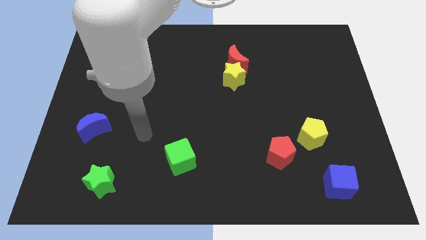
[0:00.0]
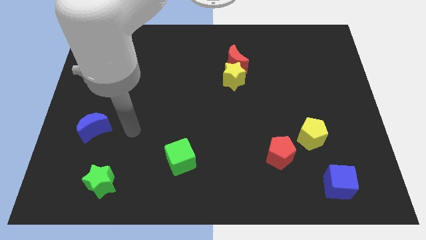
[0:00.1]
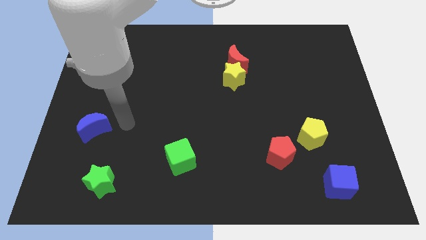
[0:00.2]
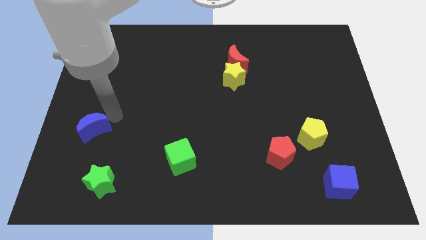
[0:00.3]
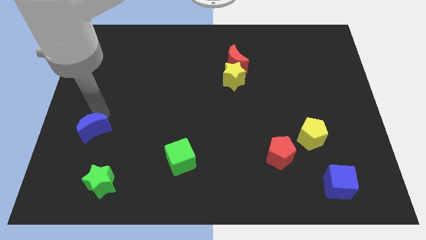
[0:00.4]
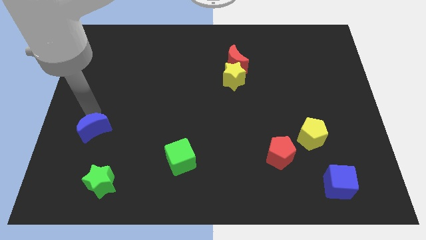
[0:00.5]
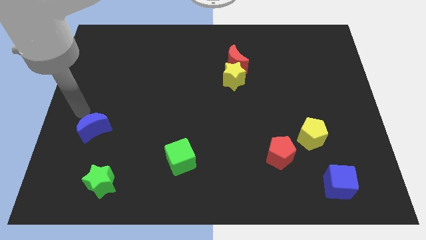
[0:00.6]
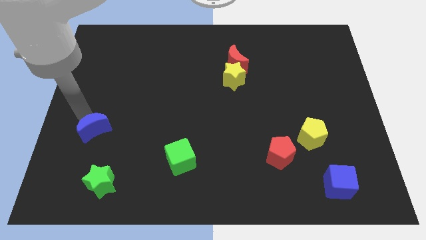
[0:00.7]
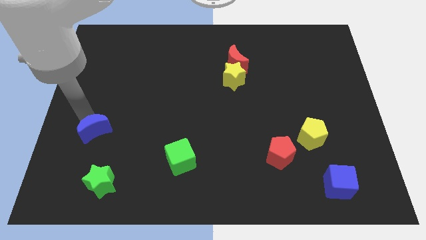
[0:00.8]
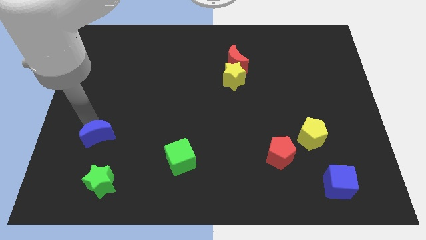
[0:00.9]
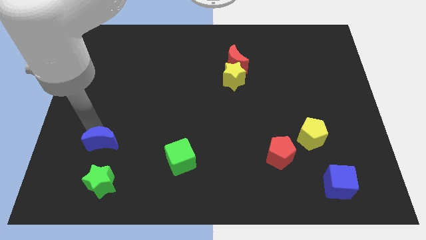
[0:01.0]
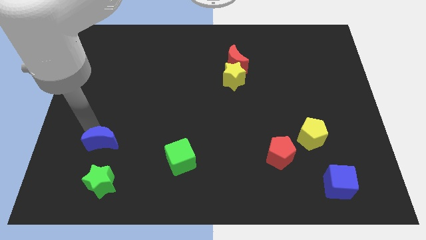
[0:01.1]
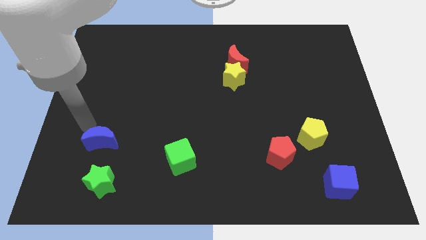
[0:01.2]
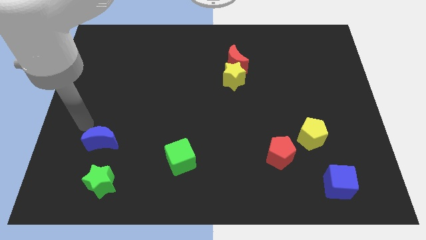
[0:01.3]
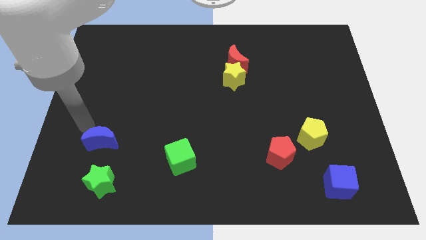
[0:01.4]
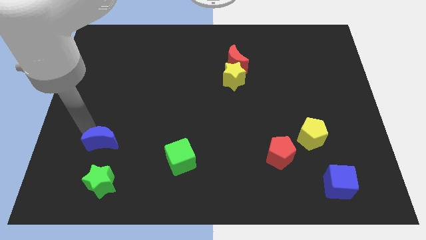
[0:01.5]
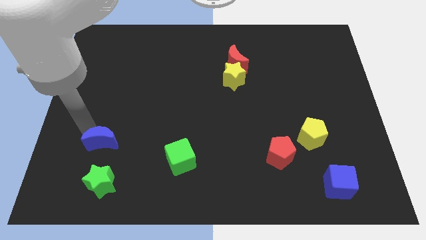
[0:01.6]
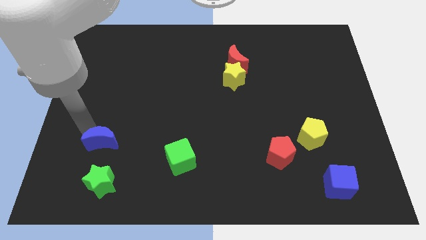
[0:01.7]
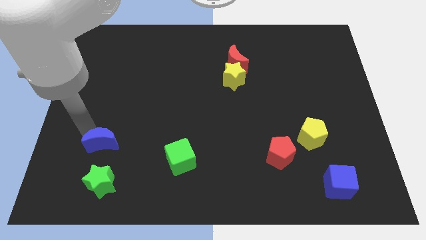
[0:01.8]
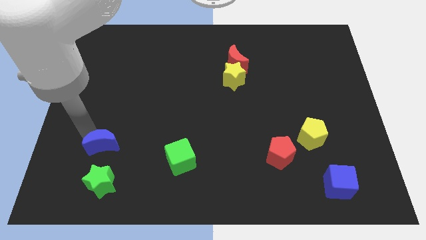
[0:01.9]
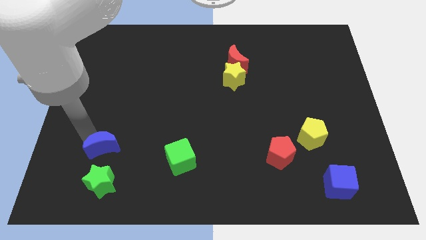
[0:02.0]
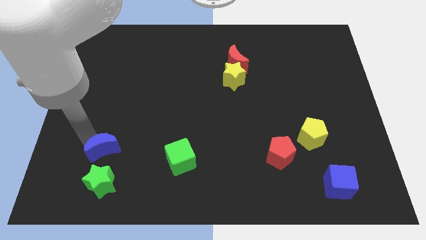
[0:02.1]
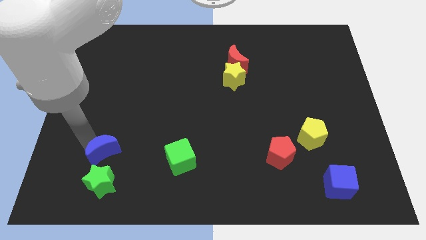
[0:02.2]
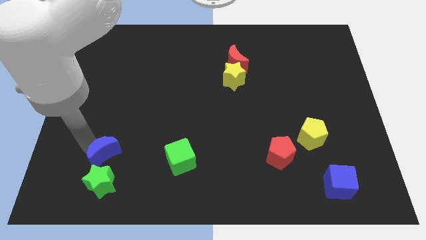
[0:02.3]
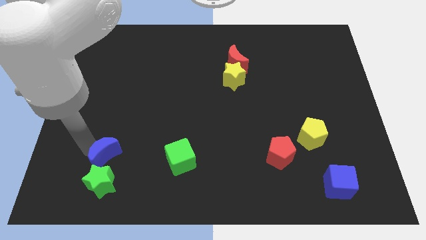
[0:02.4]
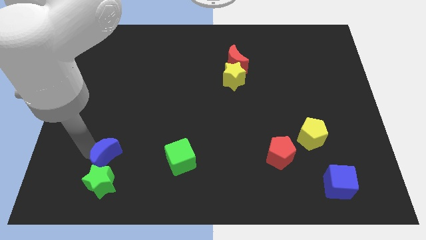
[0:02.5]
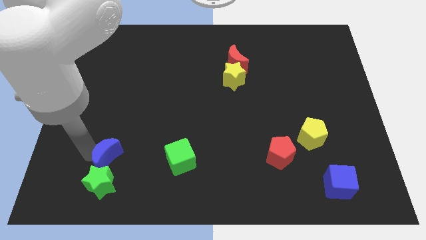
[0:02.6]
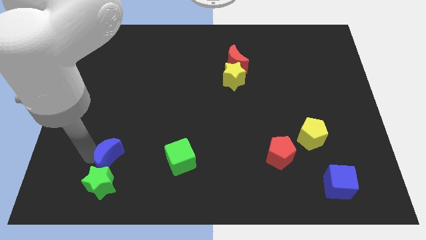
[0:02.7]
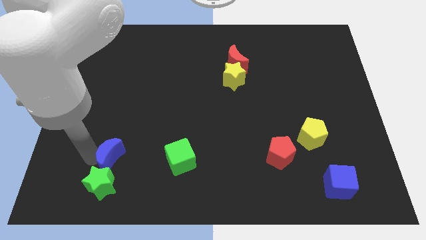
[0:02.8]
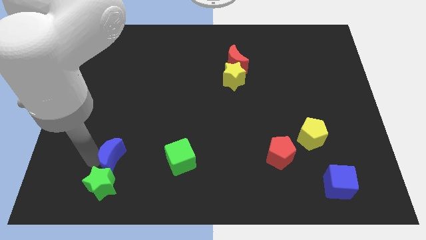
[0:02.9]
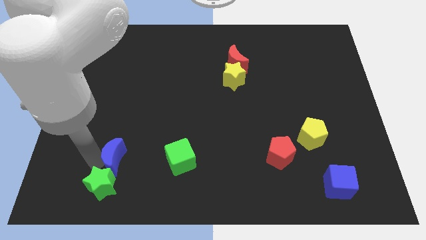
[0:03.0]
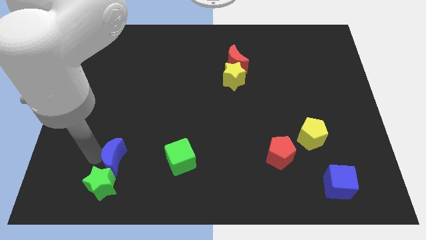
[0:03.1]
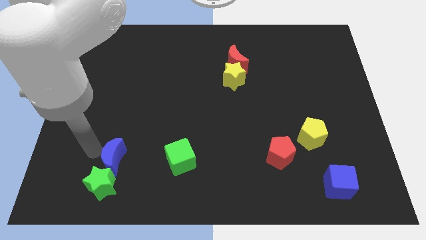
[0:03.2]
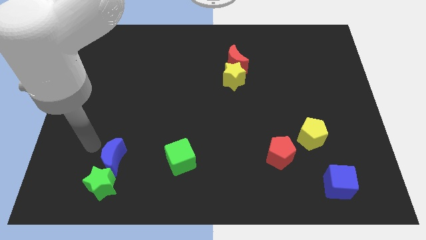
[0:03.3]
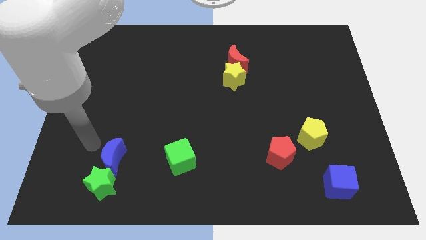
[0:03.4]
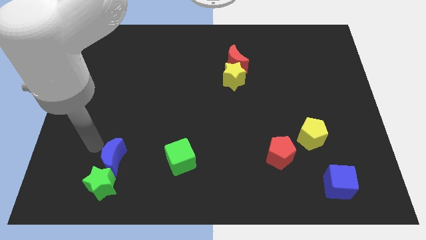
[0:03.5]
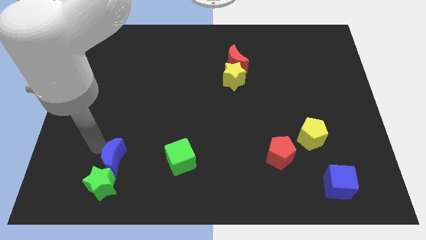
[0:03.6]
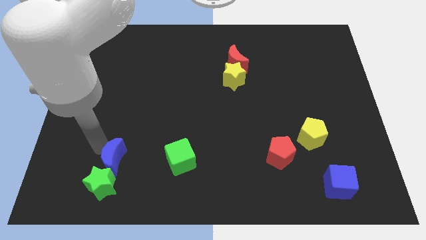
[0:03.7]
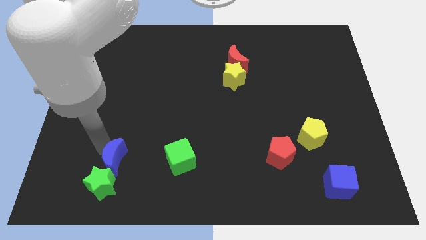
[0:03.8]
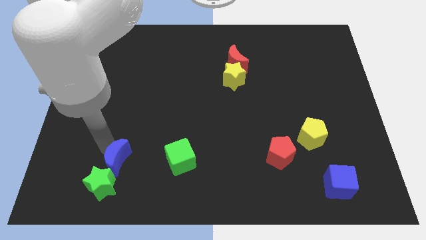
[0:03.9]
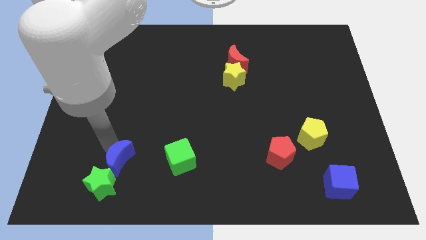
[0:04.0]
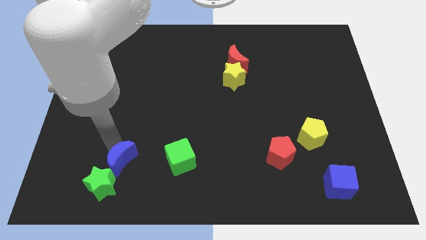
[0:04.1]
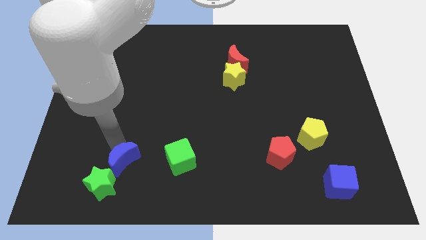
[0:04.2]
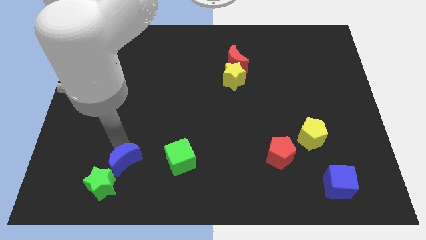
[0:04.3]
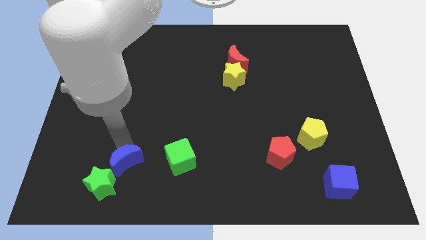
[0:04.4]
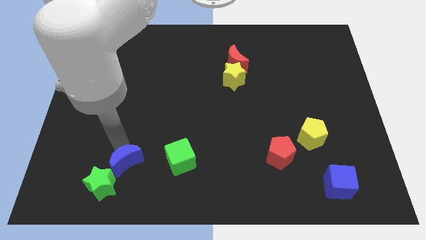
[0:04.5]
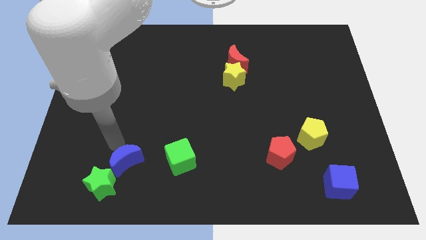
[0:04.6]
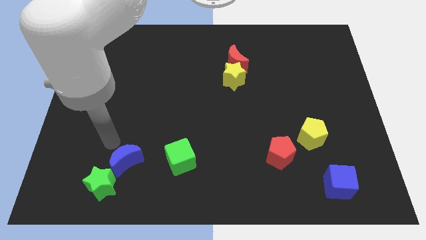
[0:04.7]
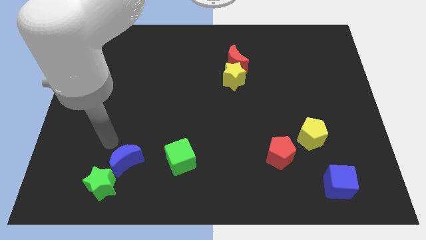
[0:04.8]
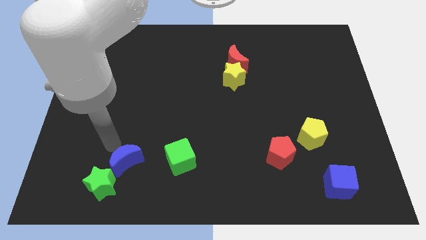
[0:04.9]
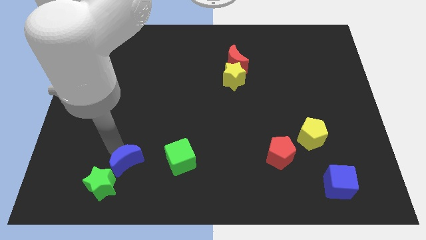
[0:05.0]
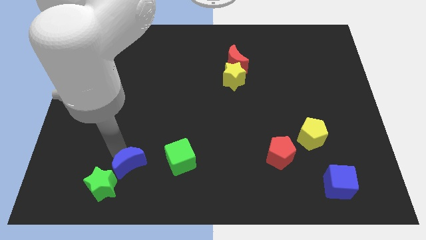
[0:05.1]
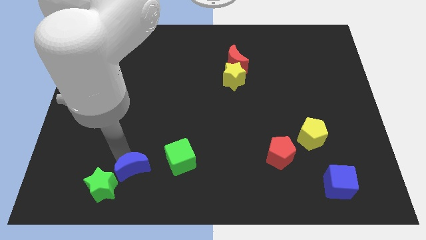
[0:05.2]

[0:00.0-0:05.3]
push the blue moon to the right of the green star

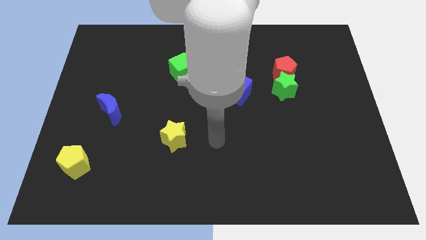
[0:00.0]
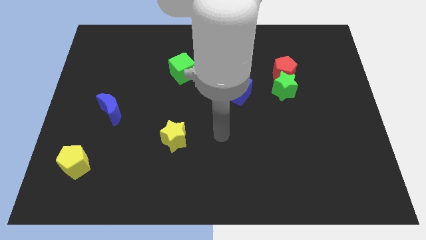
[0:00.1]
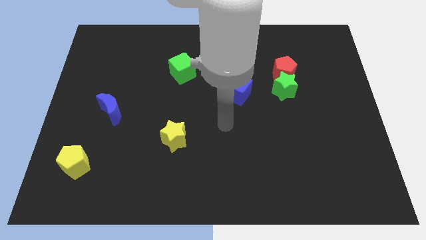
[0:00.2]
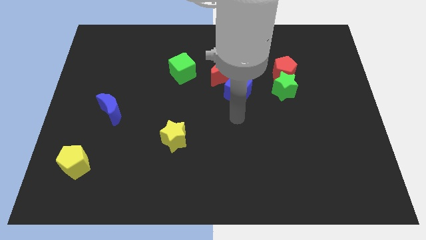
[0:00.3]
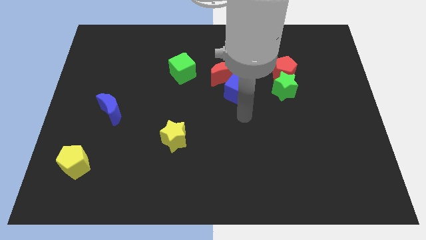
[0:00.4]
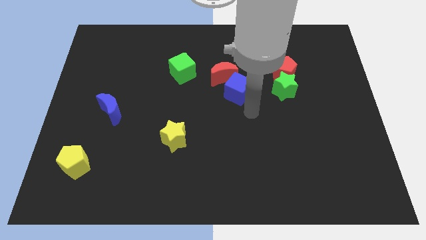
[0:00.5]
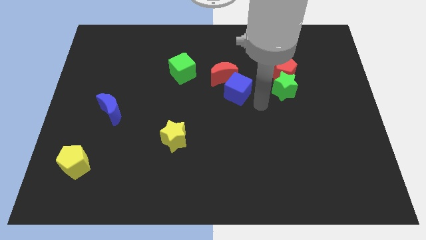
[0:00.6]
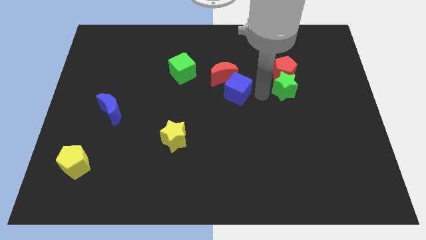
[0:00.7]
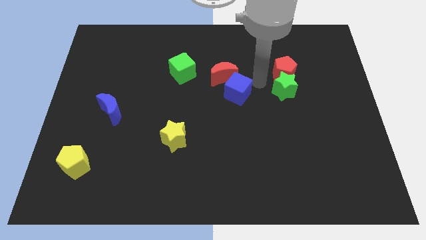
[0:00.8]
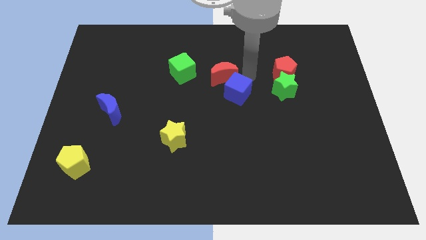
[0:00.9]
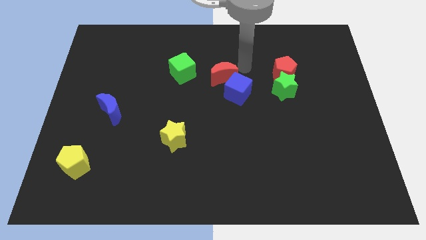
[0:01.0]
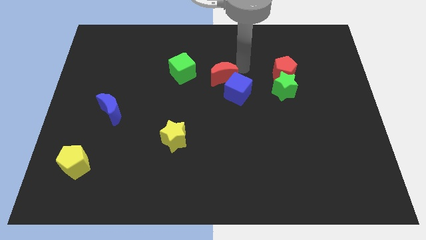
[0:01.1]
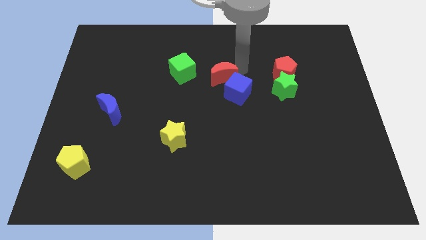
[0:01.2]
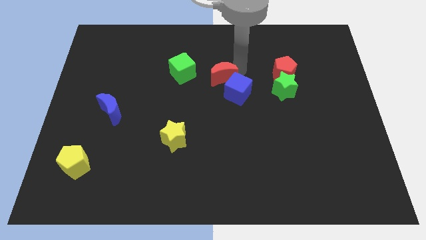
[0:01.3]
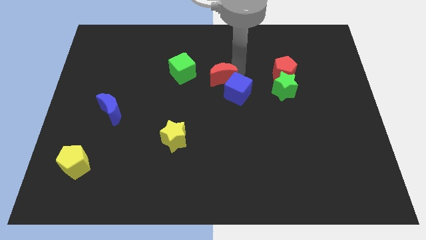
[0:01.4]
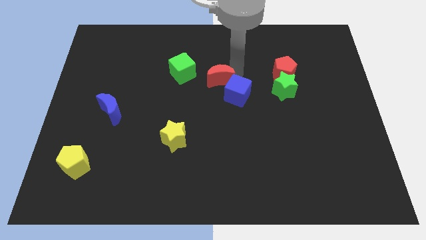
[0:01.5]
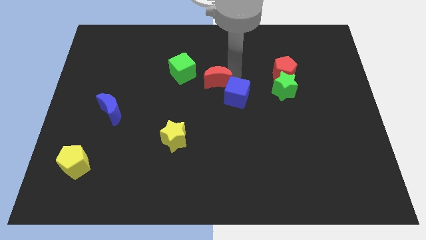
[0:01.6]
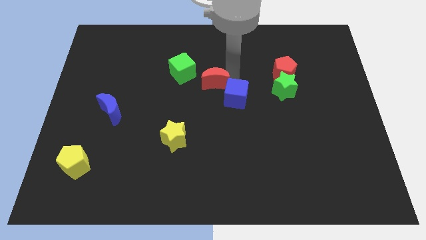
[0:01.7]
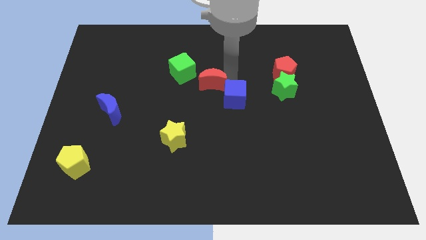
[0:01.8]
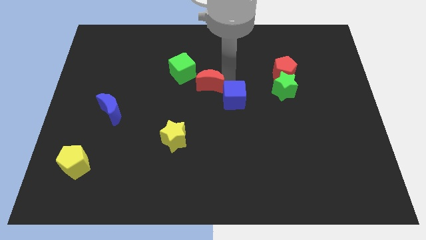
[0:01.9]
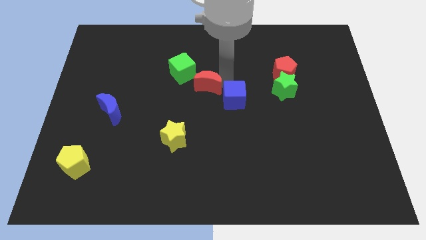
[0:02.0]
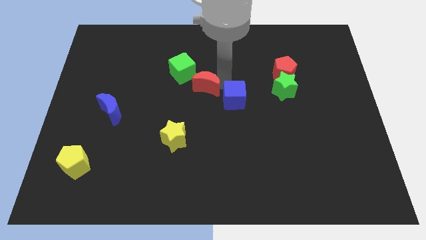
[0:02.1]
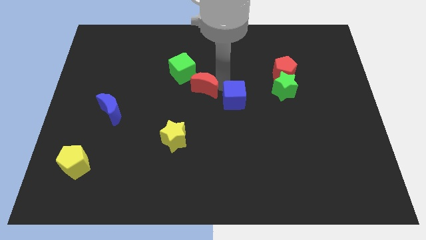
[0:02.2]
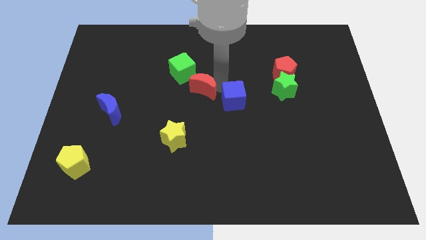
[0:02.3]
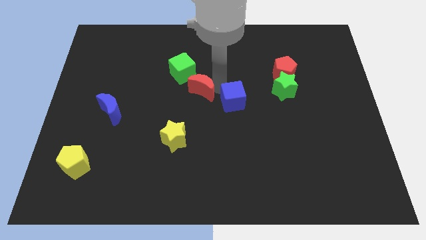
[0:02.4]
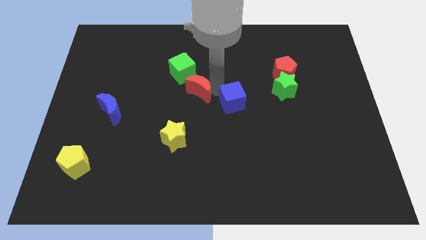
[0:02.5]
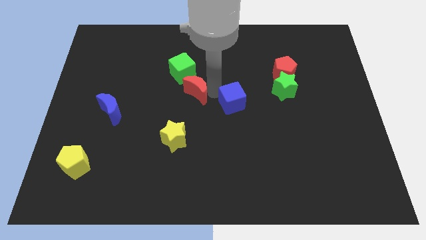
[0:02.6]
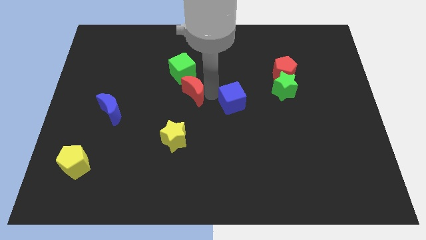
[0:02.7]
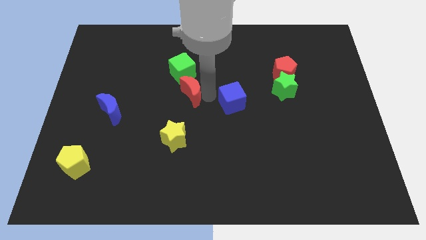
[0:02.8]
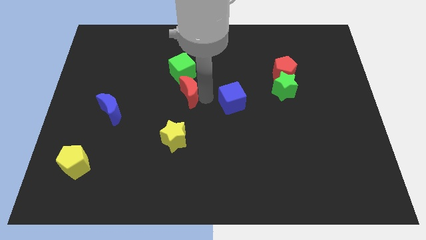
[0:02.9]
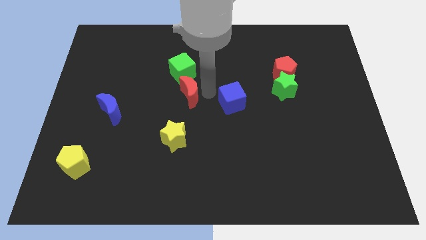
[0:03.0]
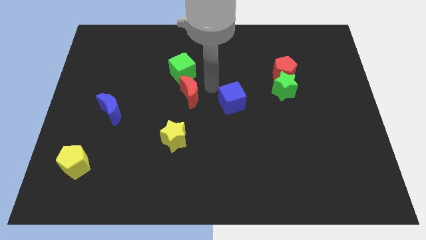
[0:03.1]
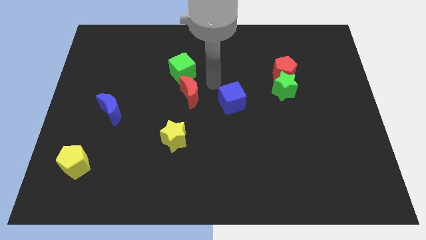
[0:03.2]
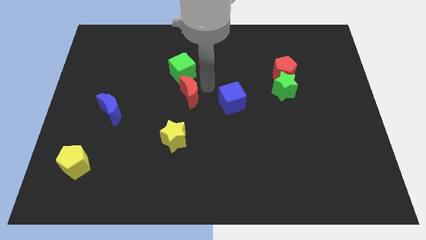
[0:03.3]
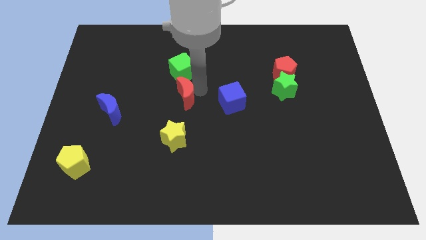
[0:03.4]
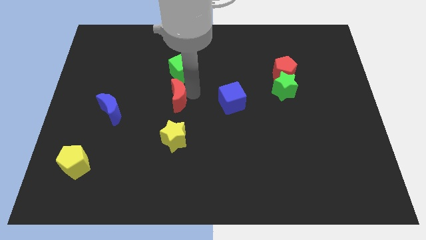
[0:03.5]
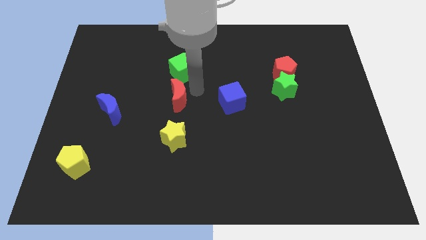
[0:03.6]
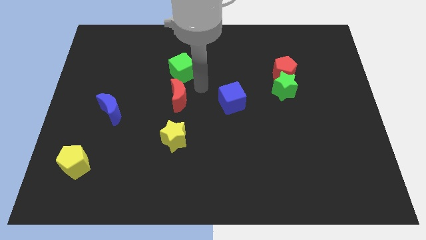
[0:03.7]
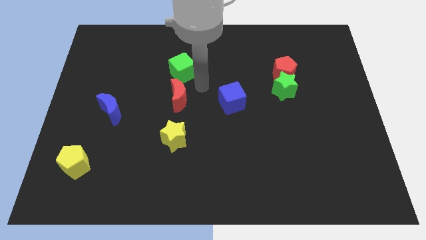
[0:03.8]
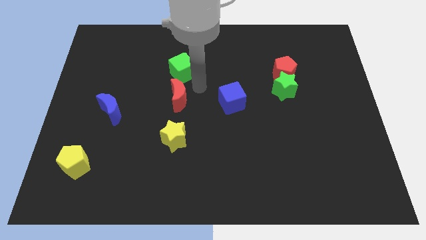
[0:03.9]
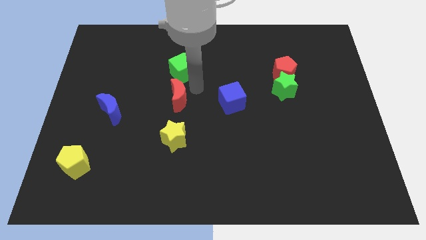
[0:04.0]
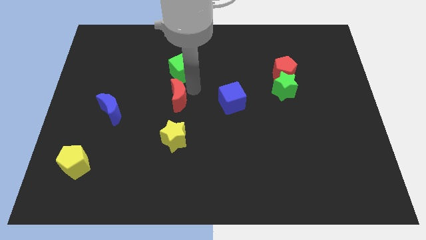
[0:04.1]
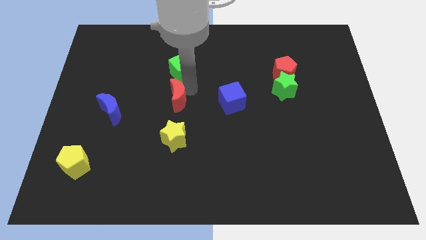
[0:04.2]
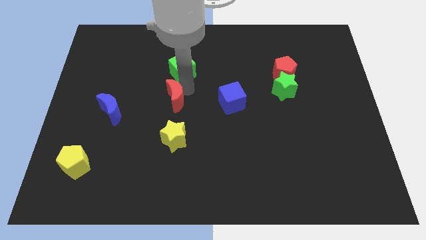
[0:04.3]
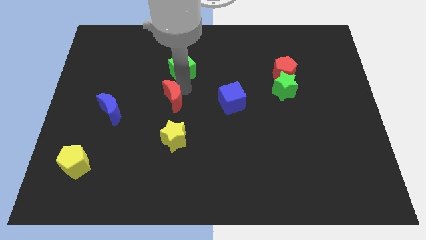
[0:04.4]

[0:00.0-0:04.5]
slide the red moon to the right of the blue moon
